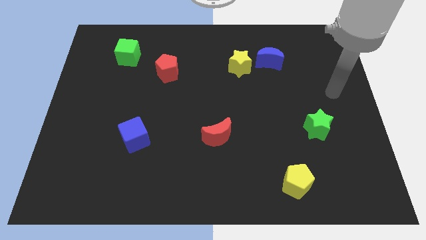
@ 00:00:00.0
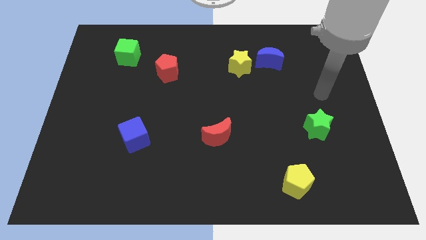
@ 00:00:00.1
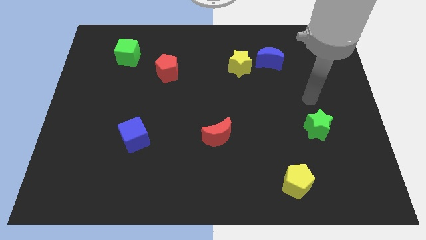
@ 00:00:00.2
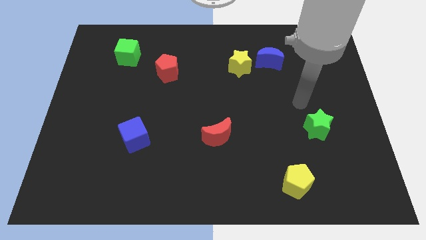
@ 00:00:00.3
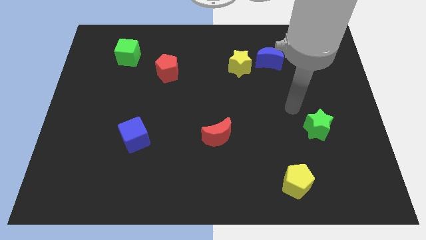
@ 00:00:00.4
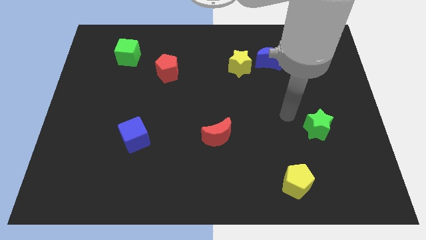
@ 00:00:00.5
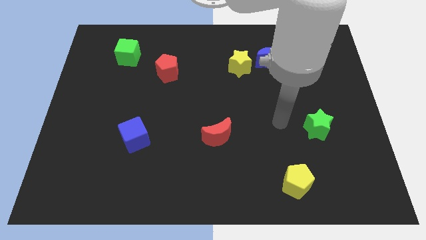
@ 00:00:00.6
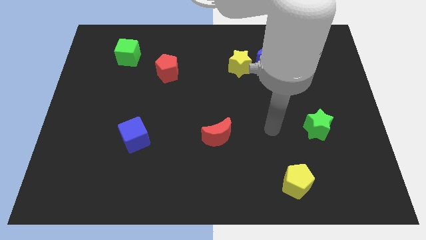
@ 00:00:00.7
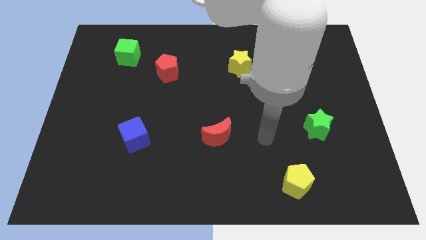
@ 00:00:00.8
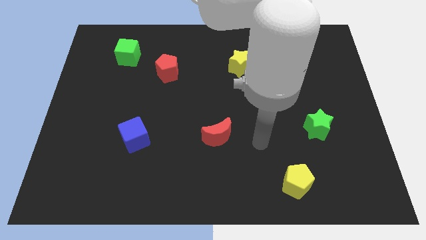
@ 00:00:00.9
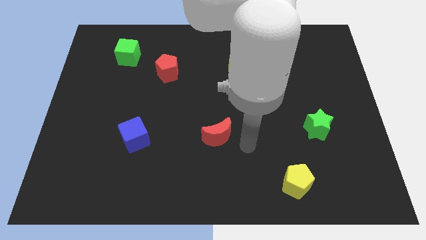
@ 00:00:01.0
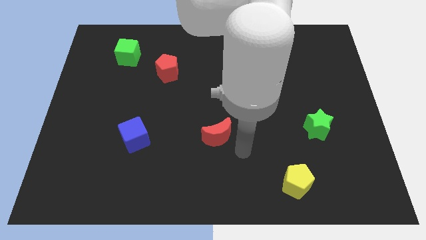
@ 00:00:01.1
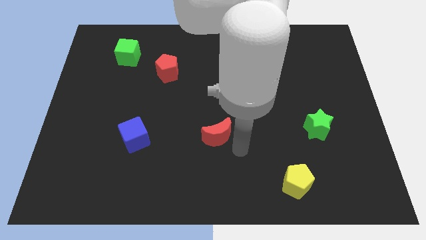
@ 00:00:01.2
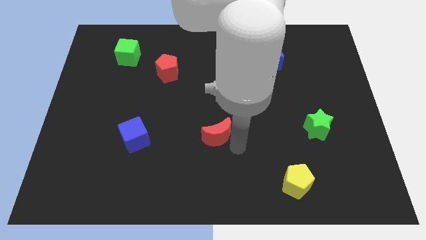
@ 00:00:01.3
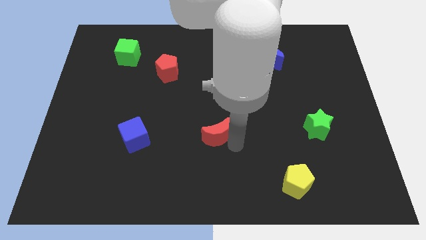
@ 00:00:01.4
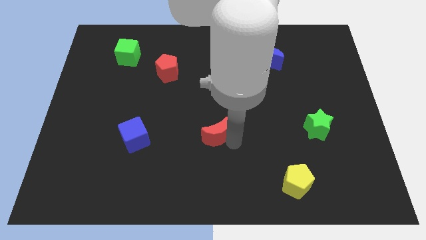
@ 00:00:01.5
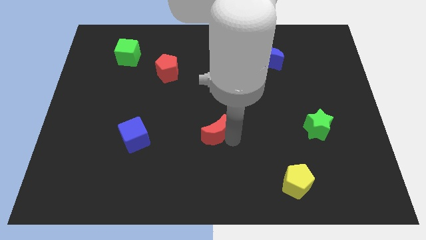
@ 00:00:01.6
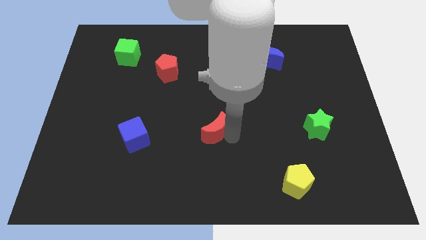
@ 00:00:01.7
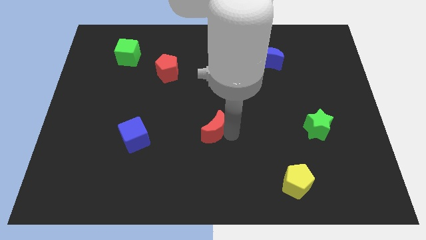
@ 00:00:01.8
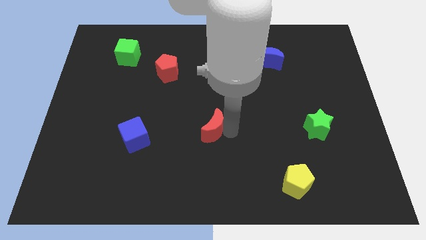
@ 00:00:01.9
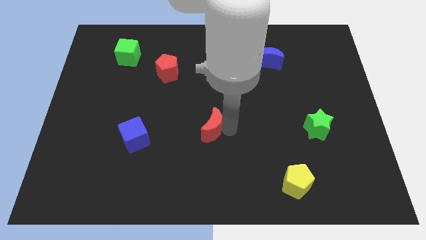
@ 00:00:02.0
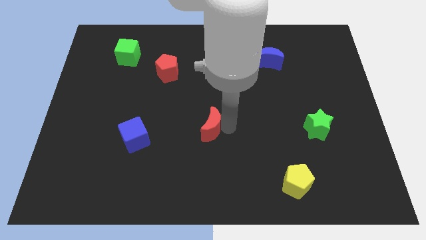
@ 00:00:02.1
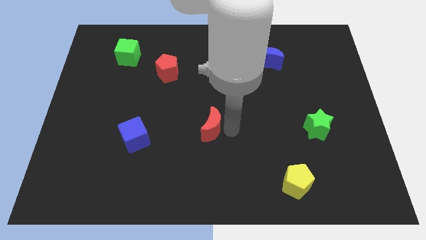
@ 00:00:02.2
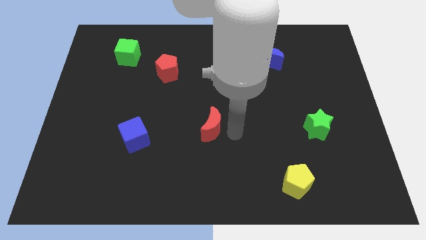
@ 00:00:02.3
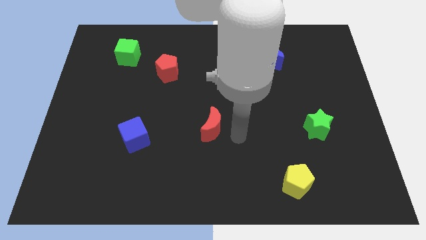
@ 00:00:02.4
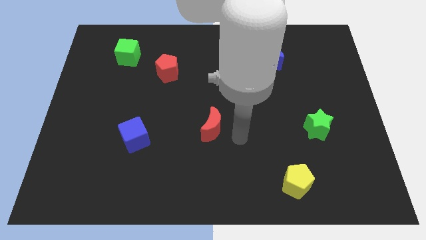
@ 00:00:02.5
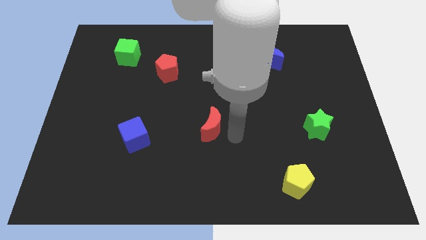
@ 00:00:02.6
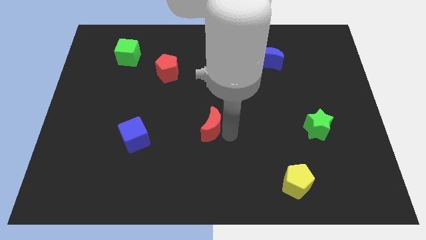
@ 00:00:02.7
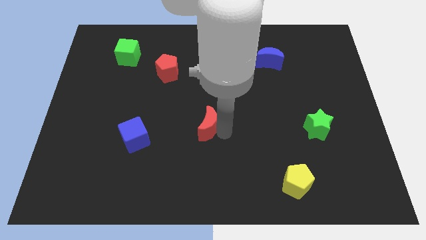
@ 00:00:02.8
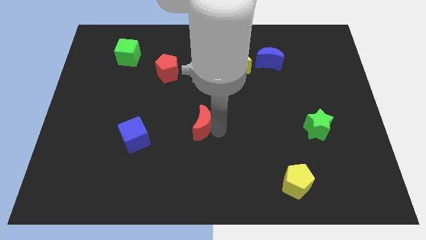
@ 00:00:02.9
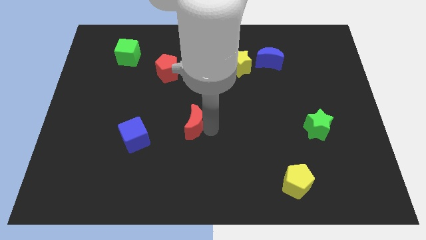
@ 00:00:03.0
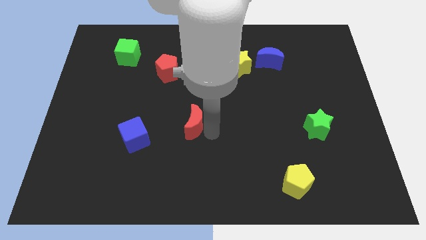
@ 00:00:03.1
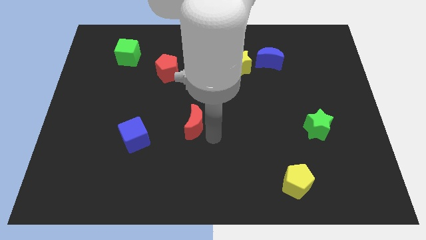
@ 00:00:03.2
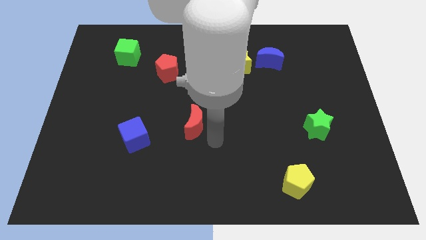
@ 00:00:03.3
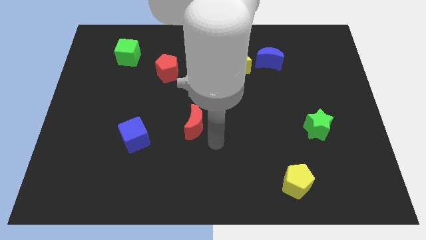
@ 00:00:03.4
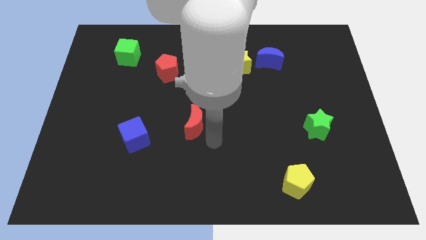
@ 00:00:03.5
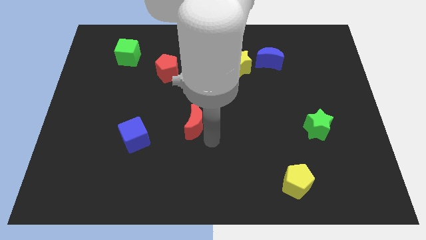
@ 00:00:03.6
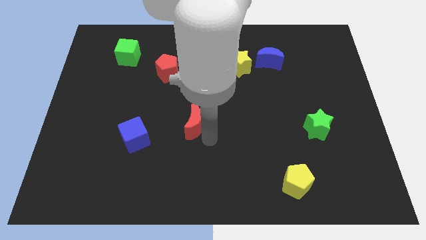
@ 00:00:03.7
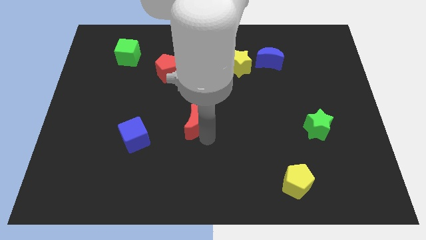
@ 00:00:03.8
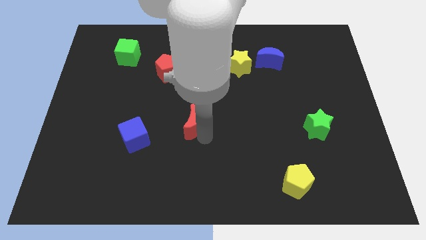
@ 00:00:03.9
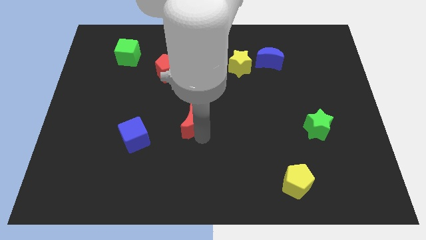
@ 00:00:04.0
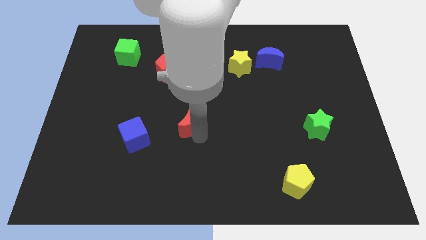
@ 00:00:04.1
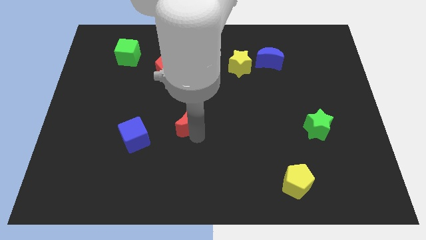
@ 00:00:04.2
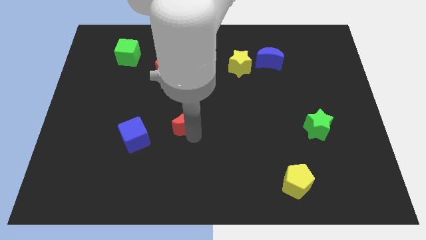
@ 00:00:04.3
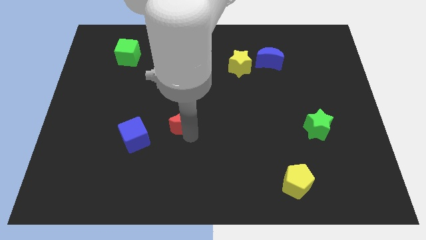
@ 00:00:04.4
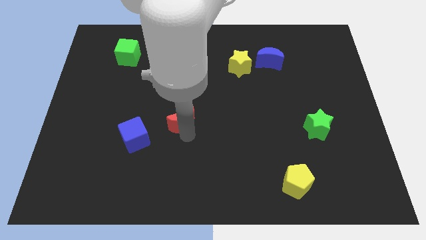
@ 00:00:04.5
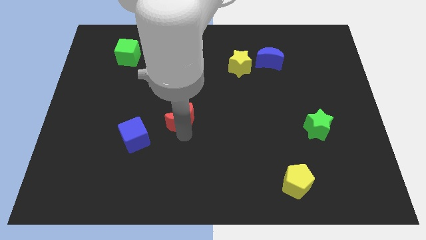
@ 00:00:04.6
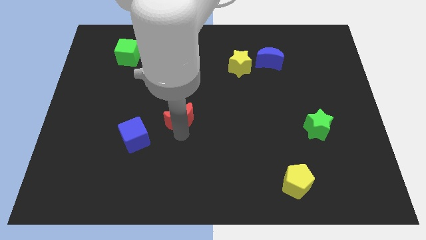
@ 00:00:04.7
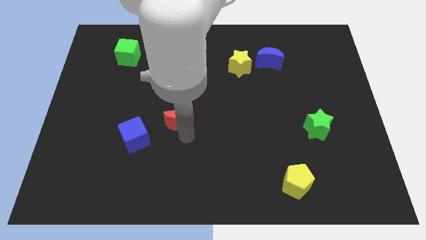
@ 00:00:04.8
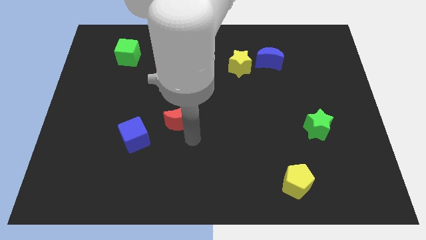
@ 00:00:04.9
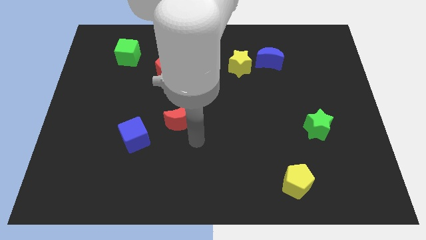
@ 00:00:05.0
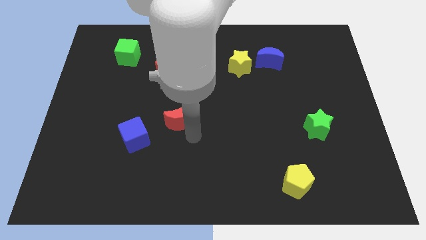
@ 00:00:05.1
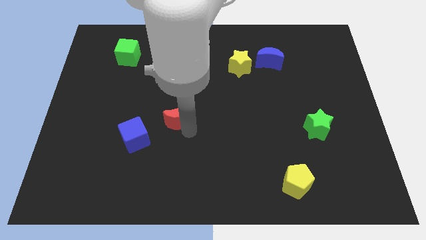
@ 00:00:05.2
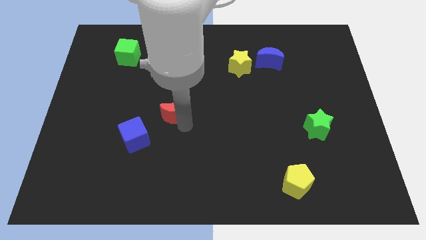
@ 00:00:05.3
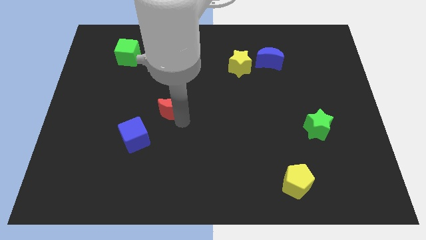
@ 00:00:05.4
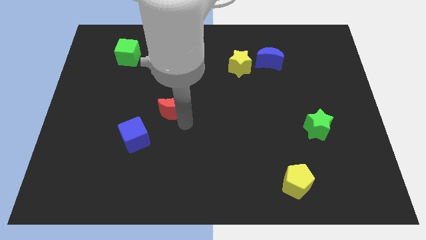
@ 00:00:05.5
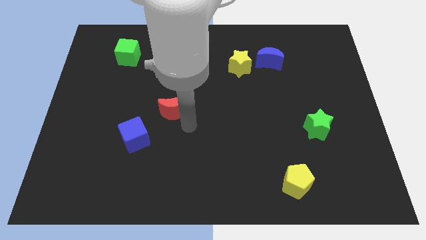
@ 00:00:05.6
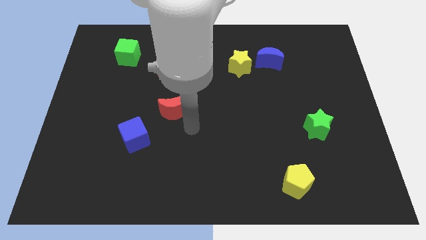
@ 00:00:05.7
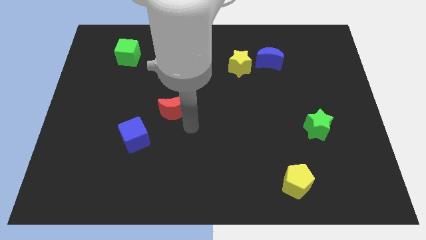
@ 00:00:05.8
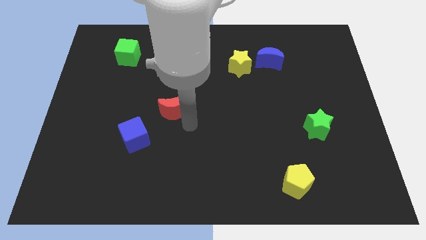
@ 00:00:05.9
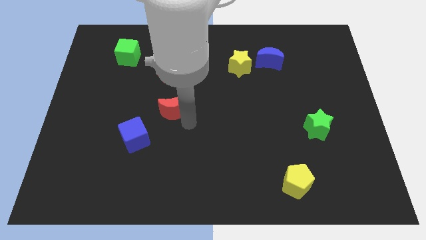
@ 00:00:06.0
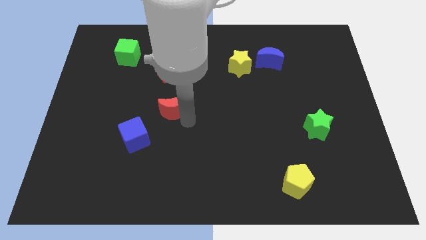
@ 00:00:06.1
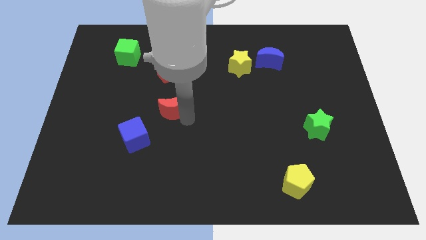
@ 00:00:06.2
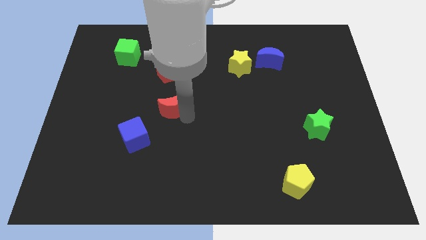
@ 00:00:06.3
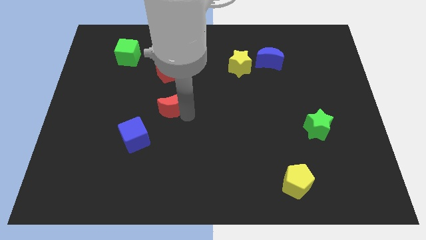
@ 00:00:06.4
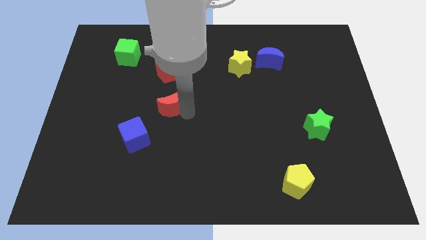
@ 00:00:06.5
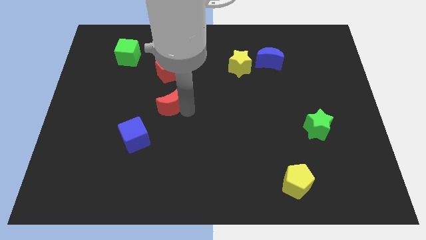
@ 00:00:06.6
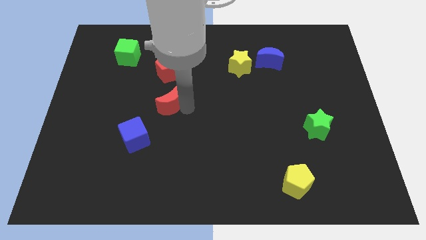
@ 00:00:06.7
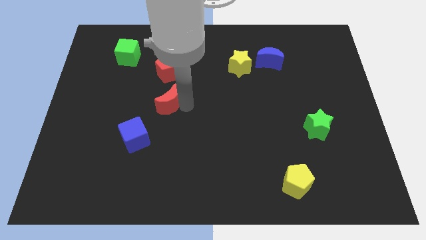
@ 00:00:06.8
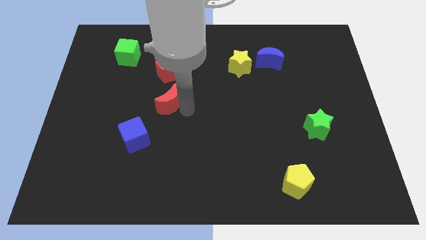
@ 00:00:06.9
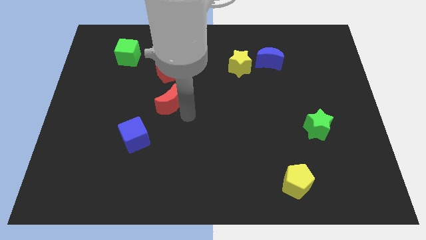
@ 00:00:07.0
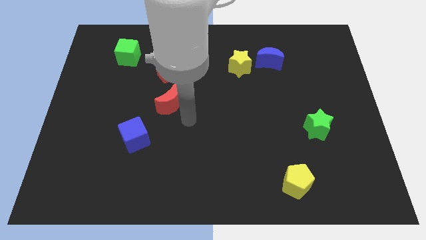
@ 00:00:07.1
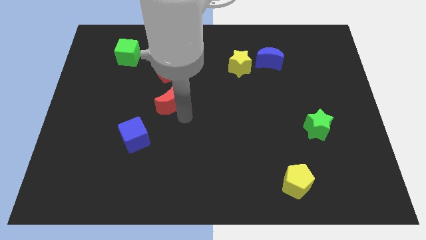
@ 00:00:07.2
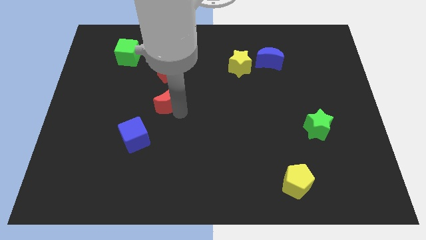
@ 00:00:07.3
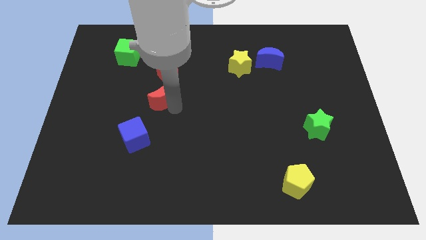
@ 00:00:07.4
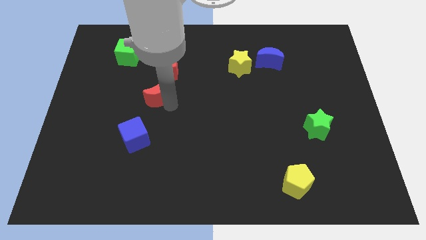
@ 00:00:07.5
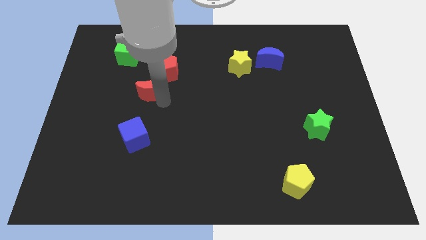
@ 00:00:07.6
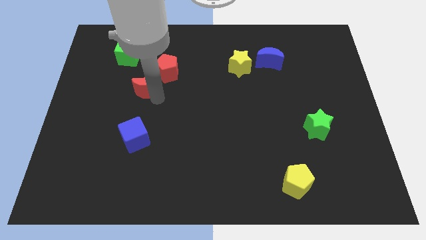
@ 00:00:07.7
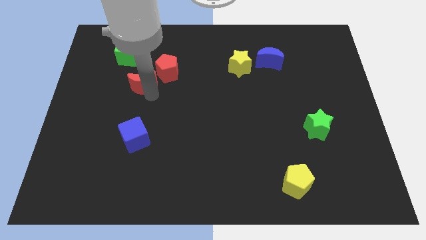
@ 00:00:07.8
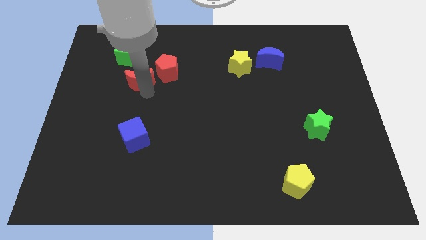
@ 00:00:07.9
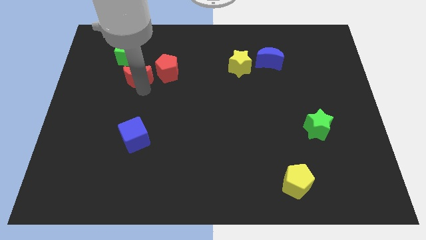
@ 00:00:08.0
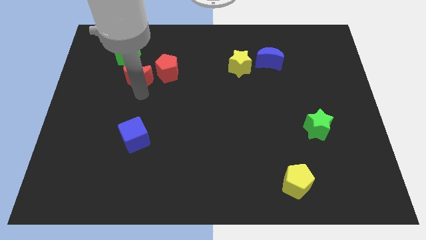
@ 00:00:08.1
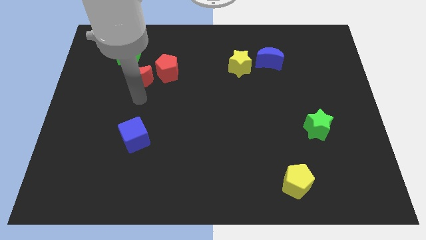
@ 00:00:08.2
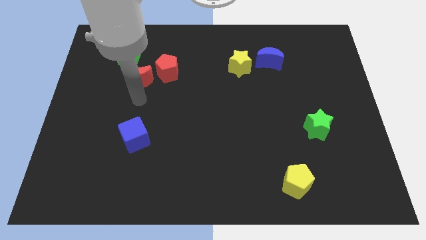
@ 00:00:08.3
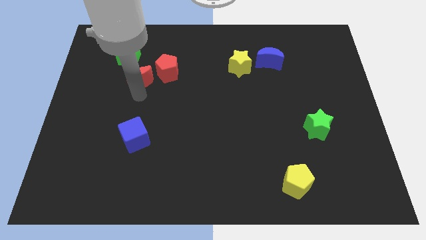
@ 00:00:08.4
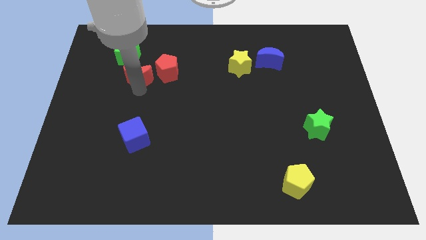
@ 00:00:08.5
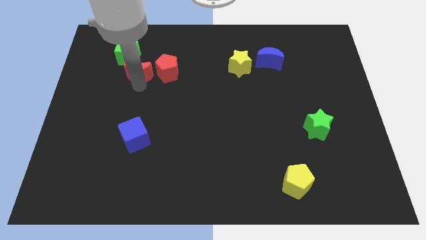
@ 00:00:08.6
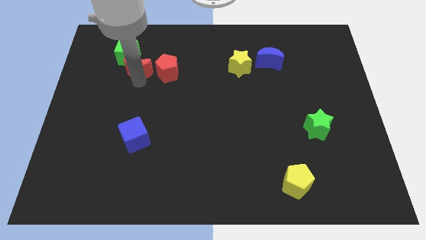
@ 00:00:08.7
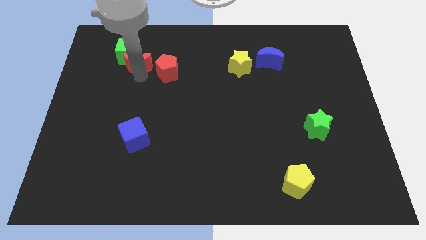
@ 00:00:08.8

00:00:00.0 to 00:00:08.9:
move the red moon to the green cube
